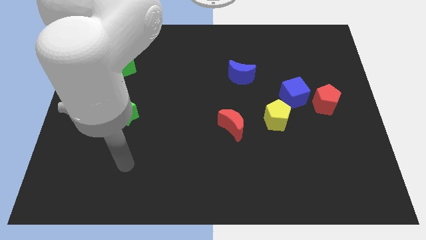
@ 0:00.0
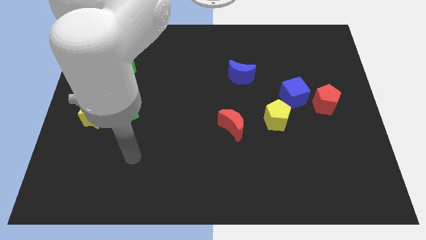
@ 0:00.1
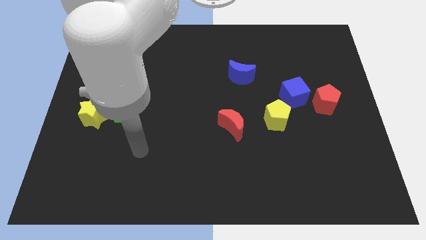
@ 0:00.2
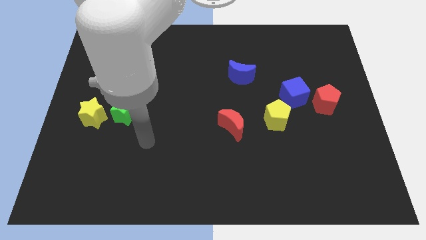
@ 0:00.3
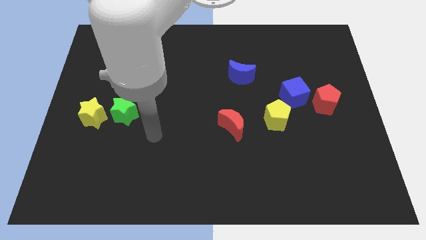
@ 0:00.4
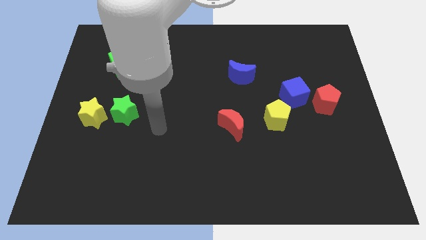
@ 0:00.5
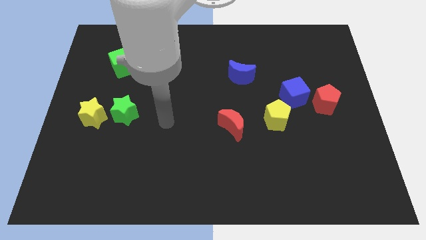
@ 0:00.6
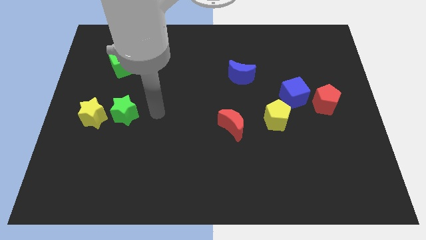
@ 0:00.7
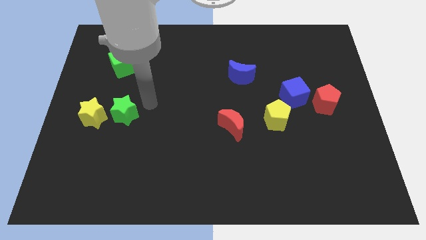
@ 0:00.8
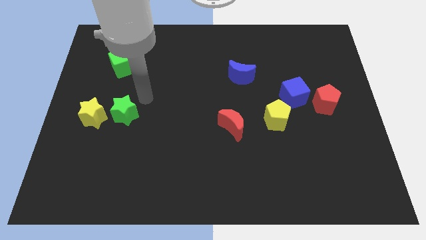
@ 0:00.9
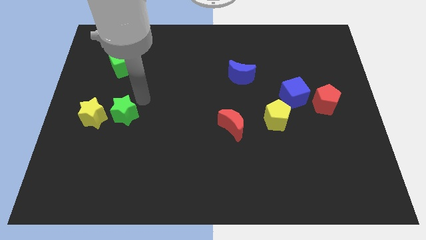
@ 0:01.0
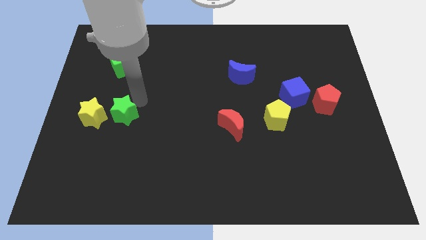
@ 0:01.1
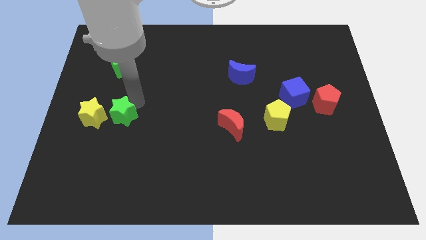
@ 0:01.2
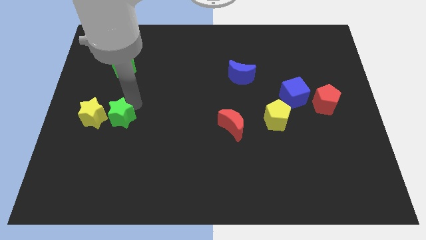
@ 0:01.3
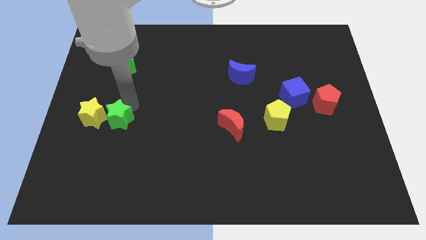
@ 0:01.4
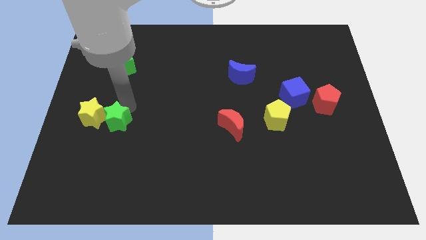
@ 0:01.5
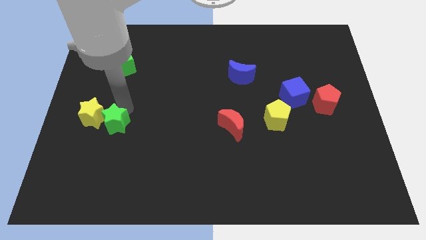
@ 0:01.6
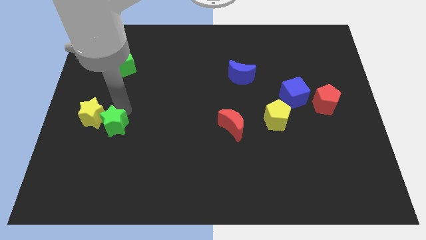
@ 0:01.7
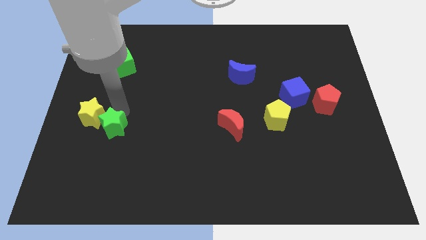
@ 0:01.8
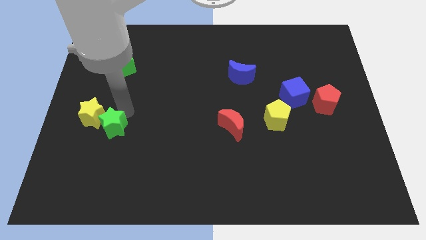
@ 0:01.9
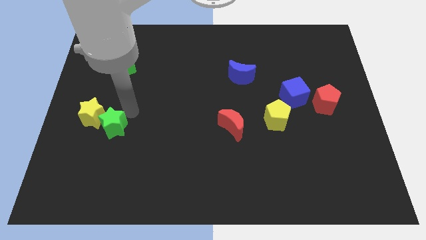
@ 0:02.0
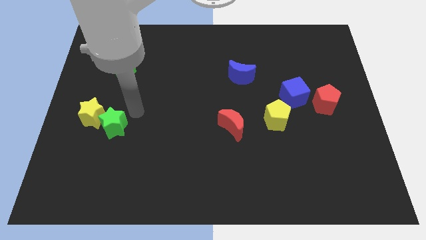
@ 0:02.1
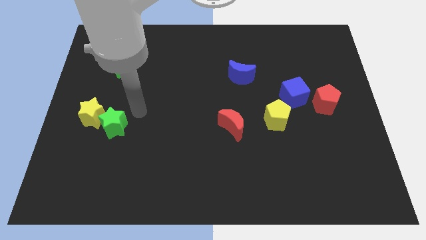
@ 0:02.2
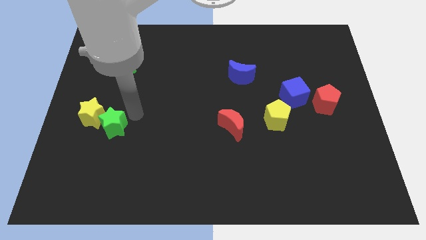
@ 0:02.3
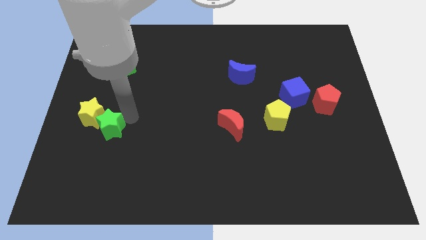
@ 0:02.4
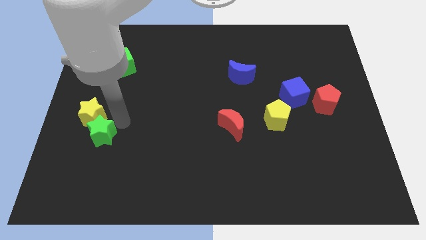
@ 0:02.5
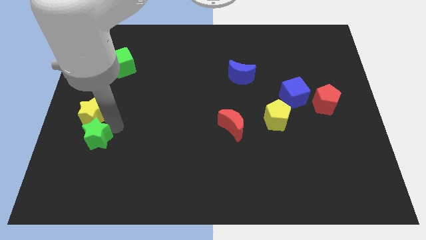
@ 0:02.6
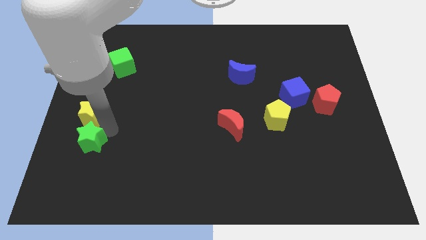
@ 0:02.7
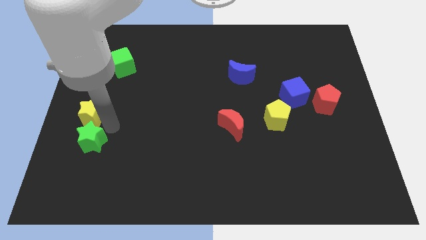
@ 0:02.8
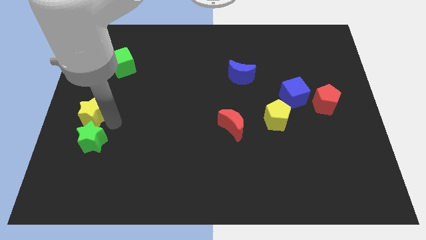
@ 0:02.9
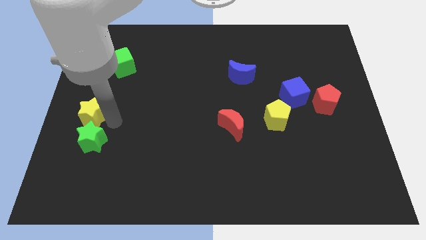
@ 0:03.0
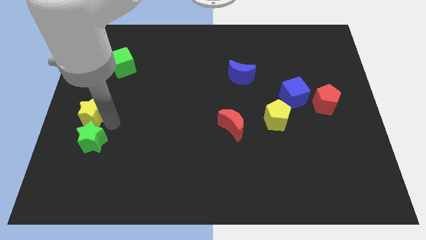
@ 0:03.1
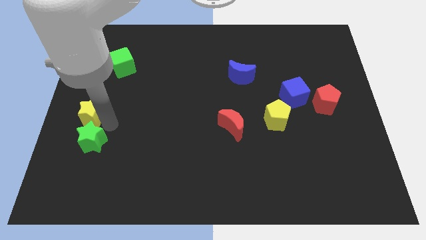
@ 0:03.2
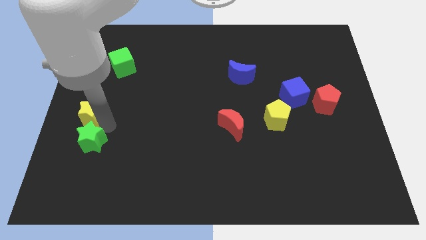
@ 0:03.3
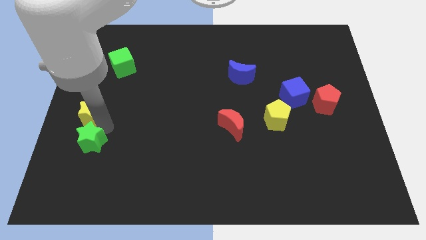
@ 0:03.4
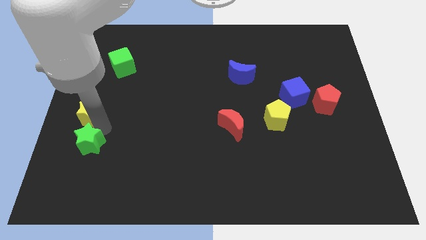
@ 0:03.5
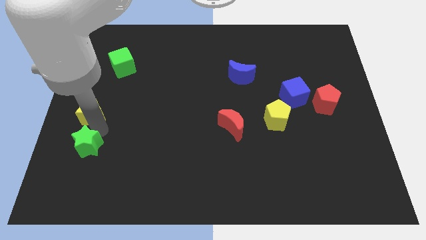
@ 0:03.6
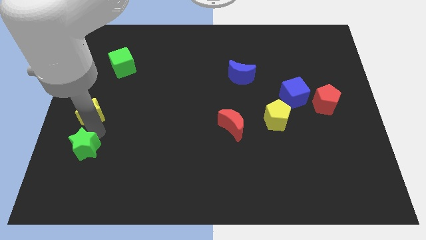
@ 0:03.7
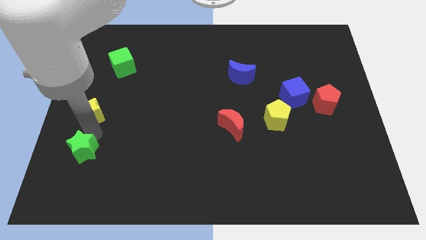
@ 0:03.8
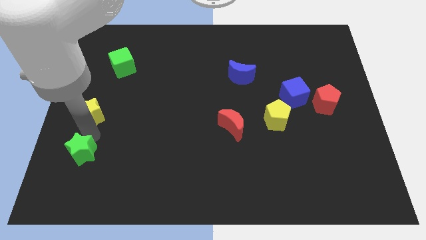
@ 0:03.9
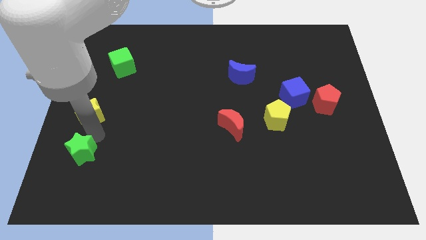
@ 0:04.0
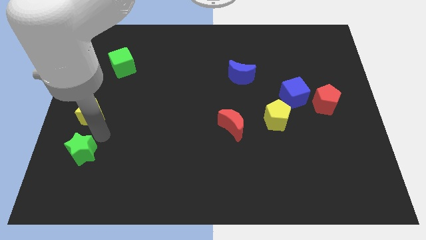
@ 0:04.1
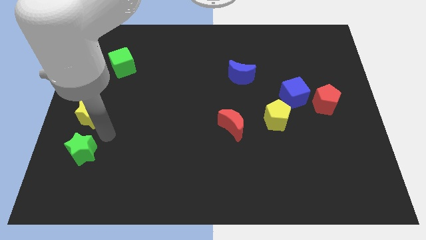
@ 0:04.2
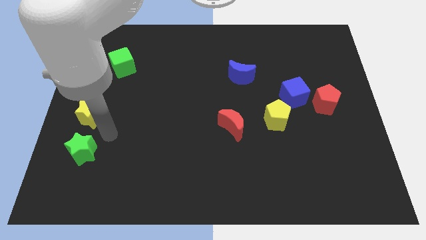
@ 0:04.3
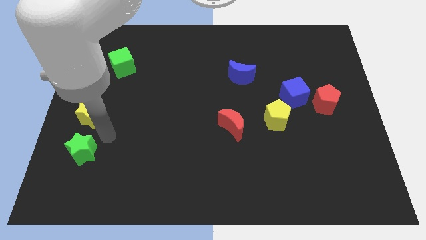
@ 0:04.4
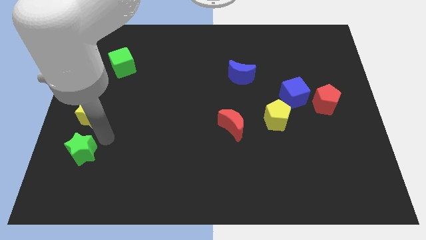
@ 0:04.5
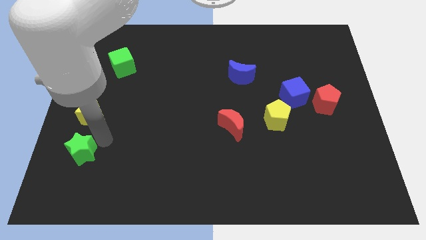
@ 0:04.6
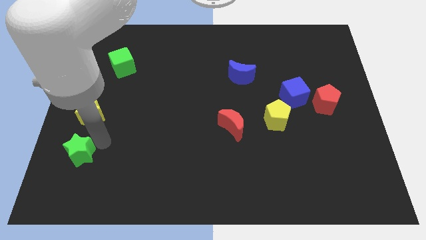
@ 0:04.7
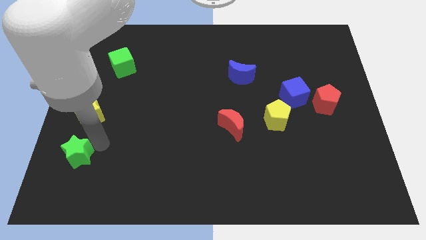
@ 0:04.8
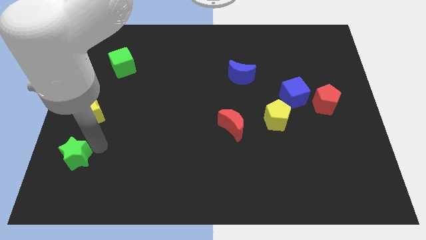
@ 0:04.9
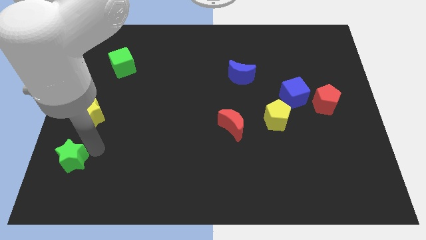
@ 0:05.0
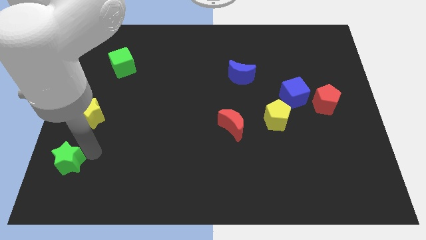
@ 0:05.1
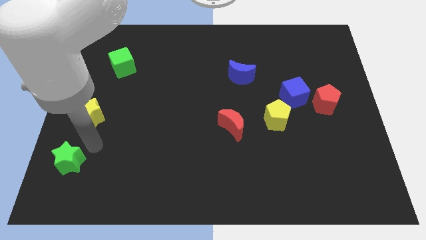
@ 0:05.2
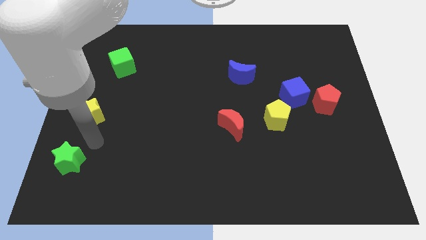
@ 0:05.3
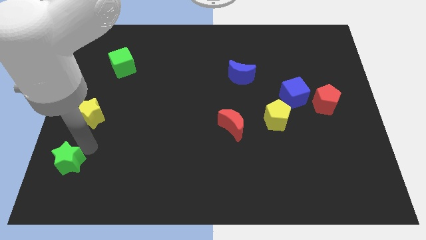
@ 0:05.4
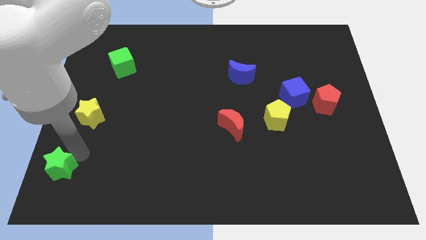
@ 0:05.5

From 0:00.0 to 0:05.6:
slide the green star to the lower left corner
